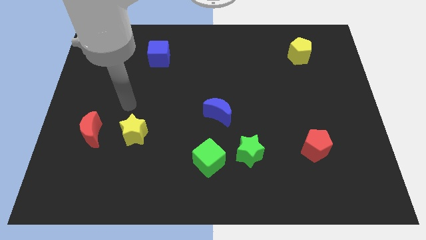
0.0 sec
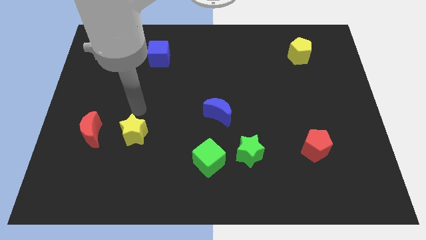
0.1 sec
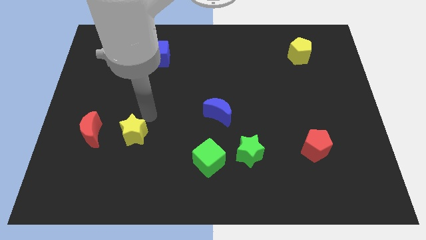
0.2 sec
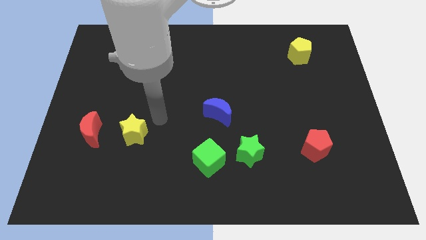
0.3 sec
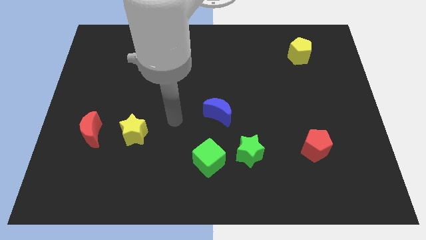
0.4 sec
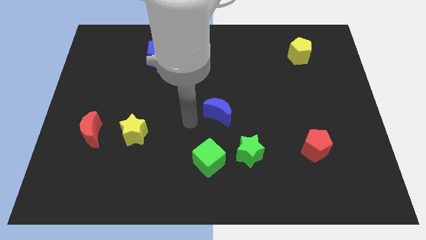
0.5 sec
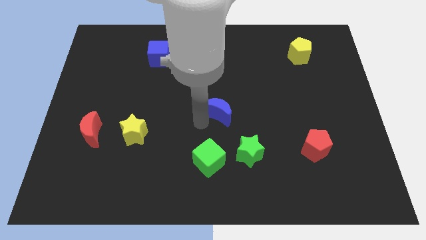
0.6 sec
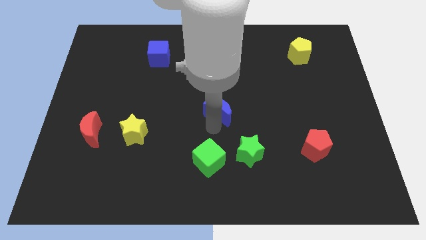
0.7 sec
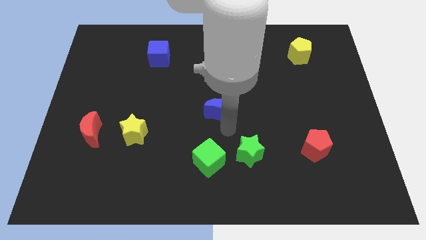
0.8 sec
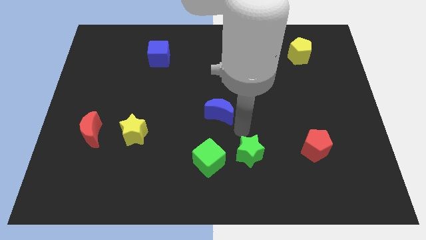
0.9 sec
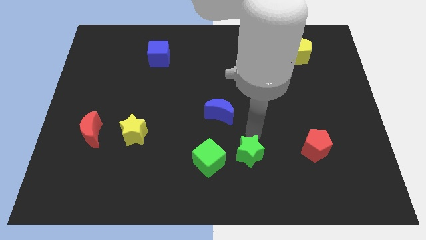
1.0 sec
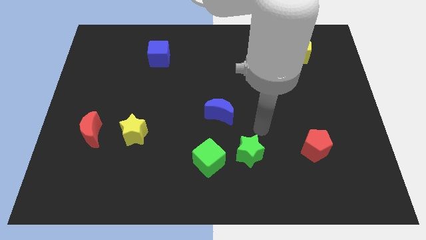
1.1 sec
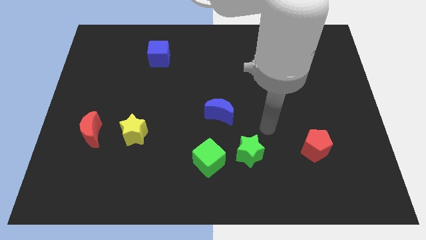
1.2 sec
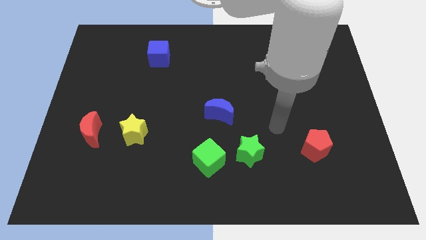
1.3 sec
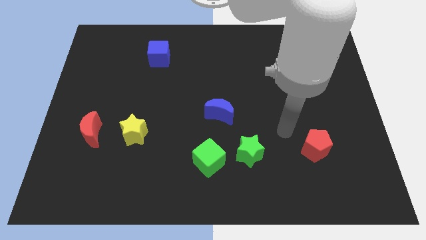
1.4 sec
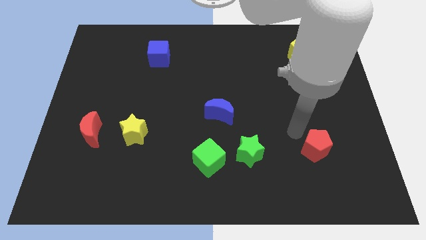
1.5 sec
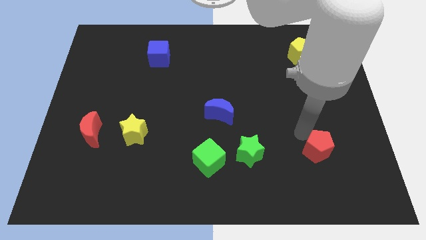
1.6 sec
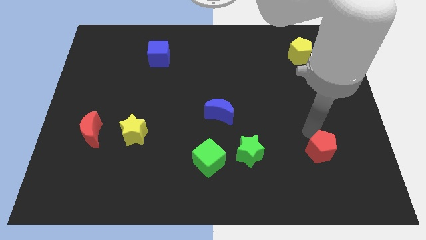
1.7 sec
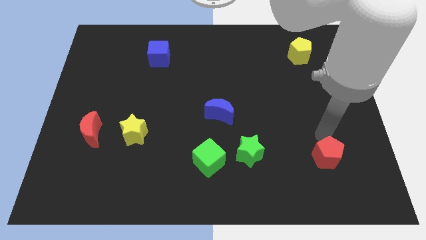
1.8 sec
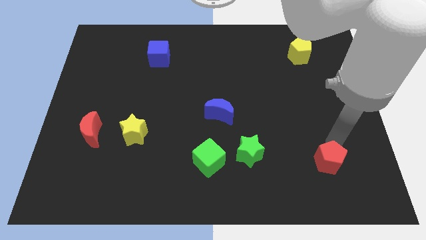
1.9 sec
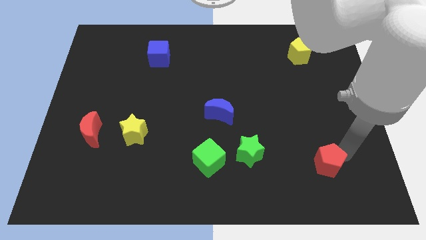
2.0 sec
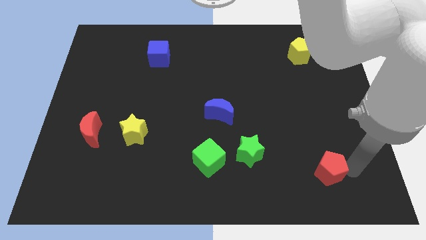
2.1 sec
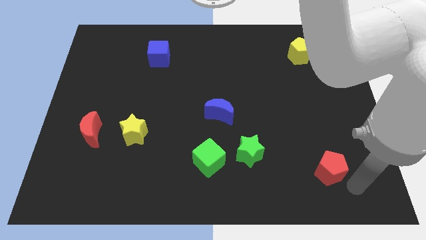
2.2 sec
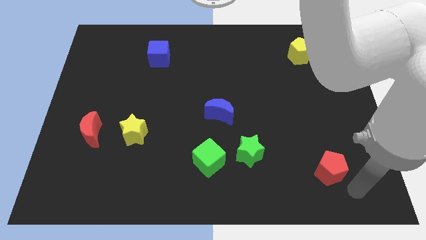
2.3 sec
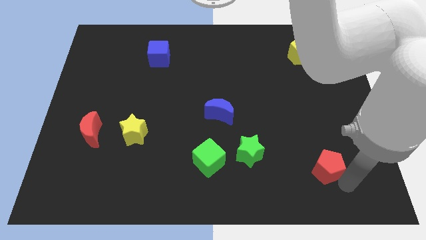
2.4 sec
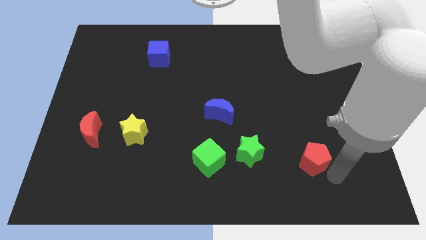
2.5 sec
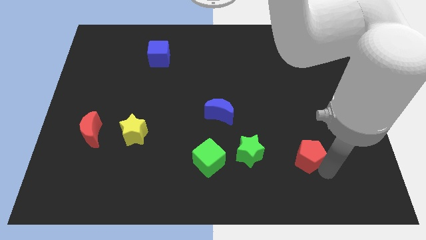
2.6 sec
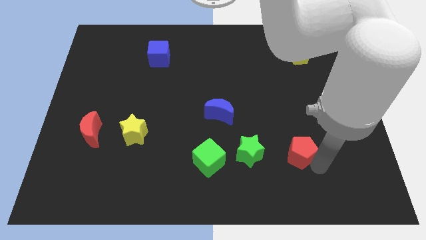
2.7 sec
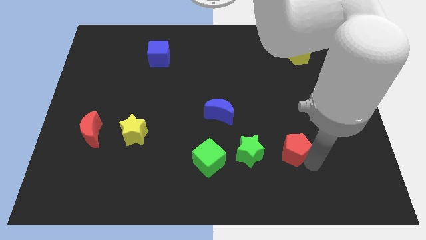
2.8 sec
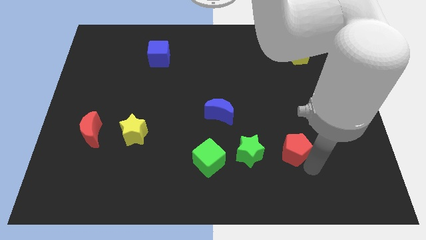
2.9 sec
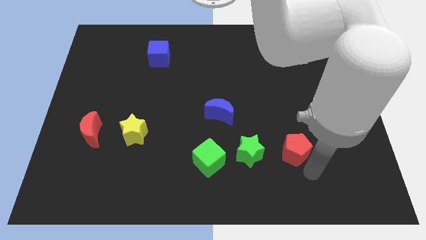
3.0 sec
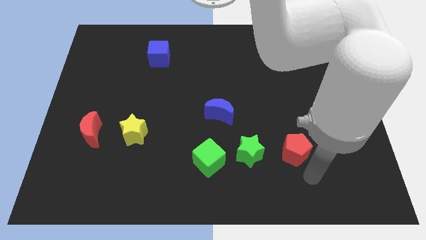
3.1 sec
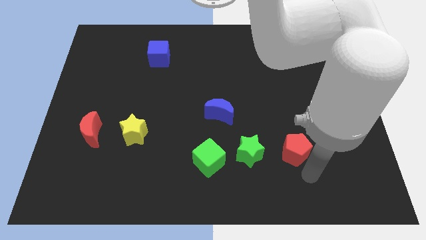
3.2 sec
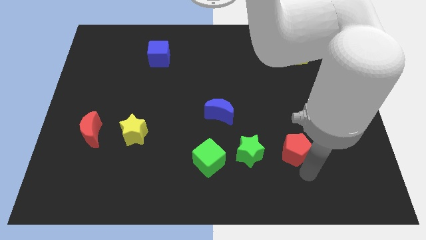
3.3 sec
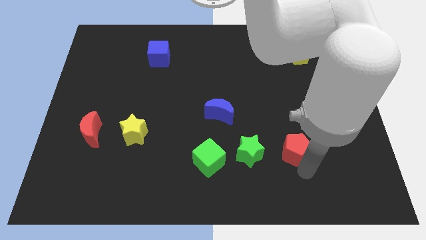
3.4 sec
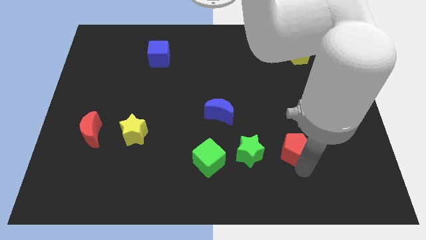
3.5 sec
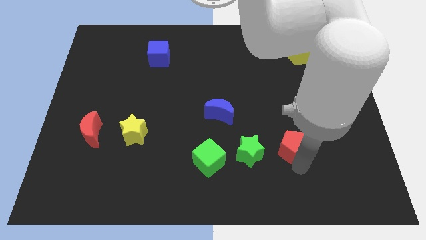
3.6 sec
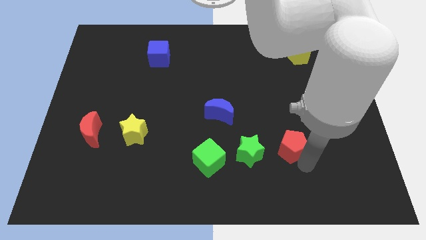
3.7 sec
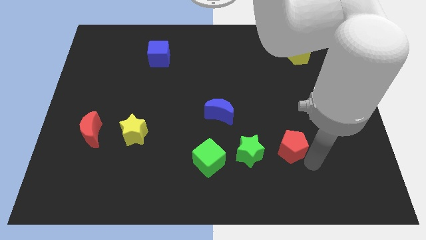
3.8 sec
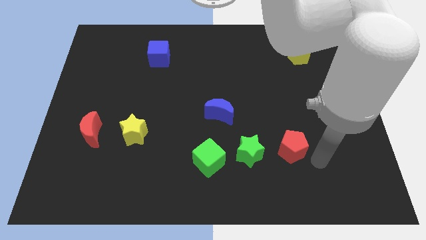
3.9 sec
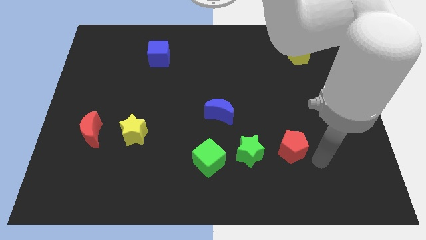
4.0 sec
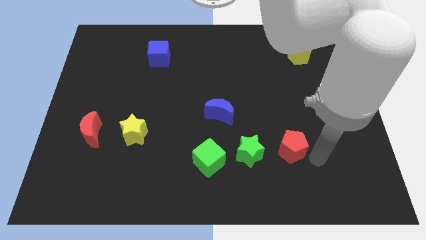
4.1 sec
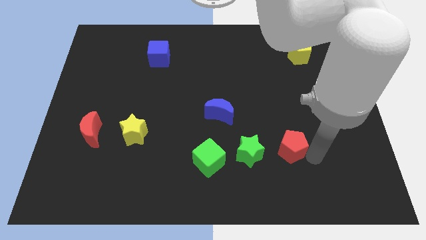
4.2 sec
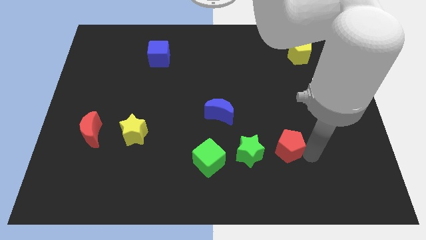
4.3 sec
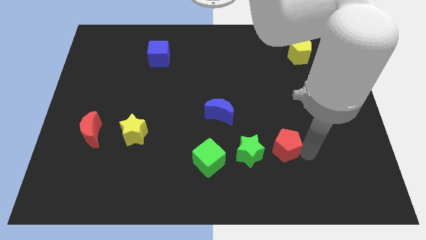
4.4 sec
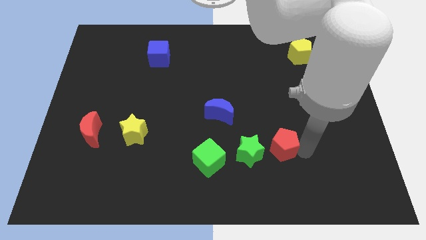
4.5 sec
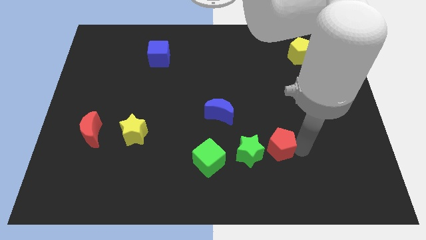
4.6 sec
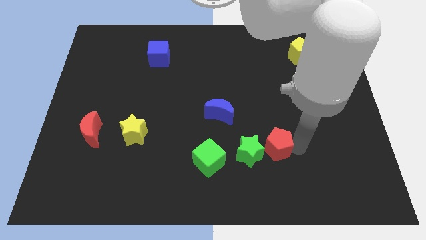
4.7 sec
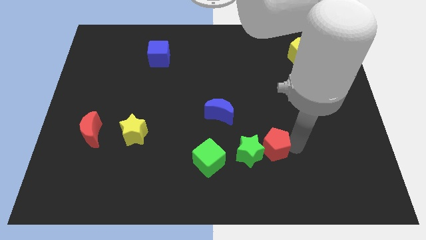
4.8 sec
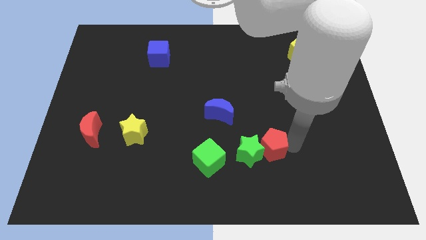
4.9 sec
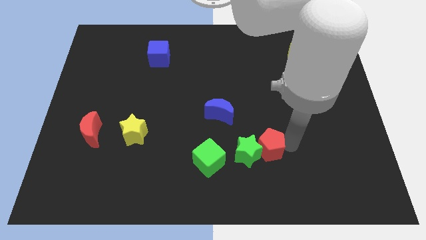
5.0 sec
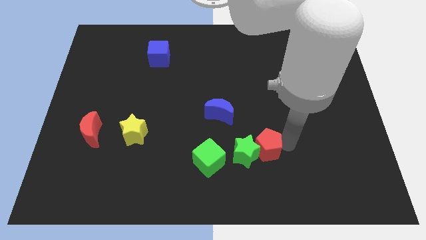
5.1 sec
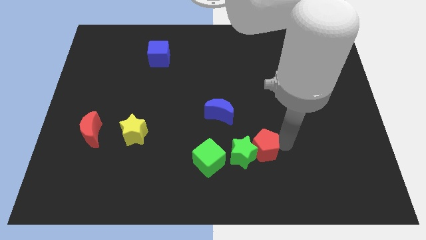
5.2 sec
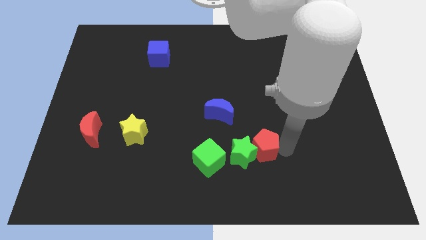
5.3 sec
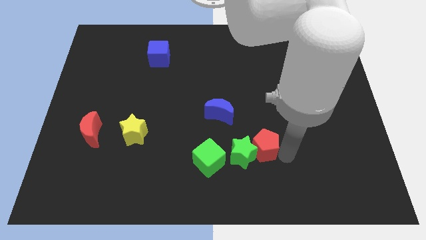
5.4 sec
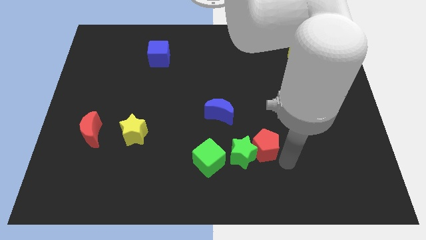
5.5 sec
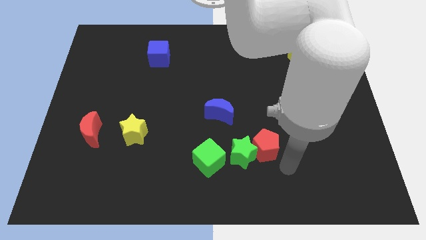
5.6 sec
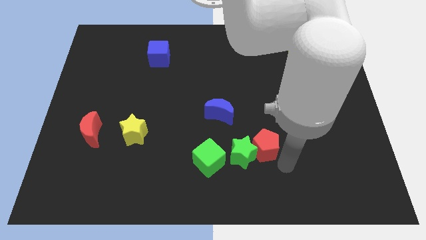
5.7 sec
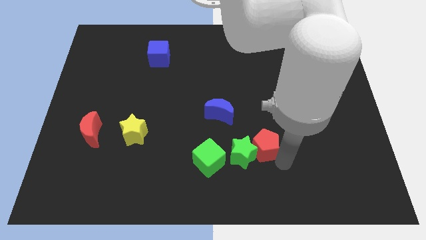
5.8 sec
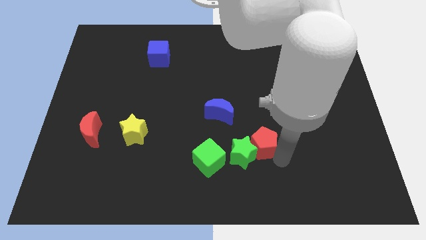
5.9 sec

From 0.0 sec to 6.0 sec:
push the red pentagon diagonally down and to the right of the blue moon

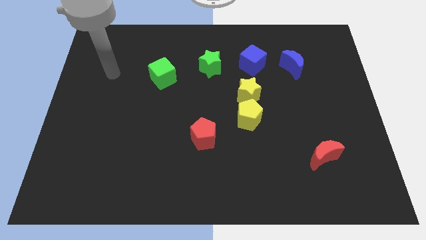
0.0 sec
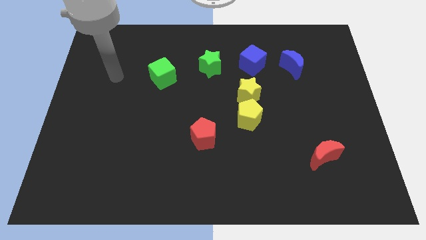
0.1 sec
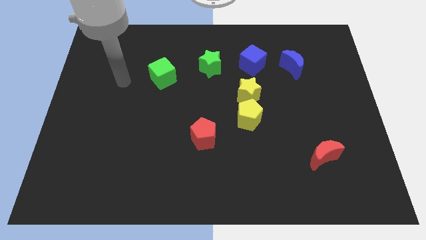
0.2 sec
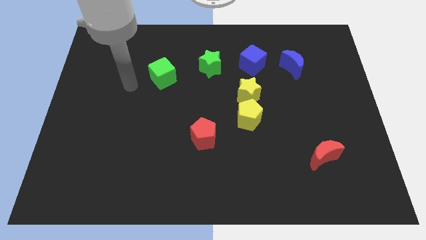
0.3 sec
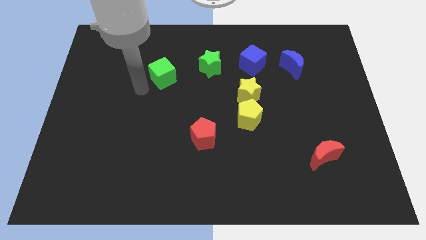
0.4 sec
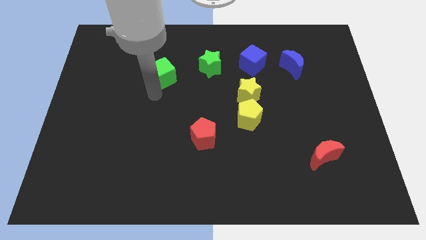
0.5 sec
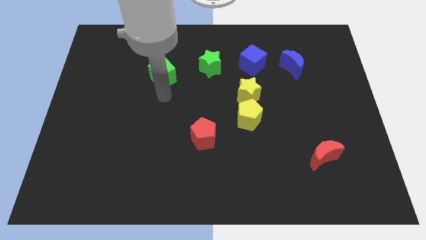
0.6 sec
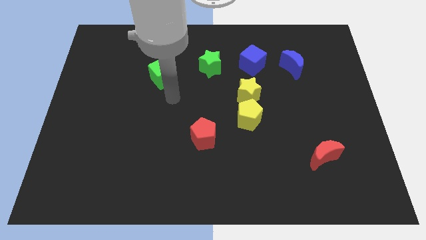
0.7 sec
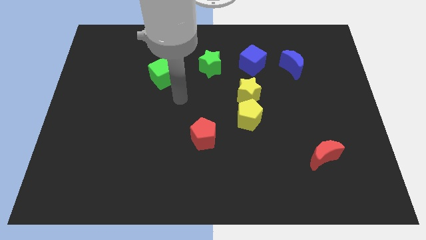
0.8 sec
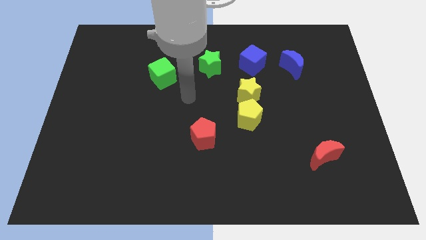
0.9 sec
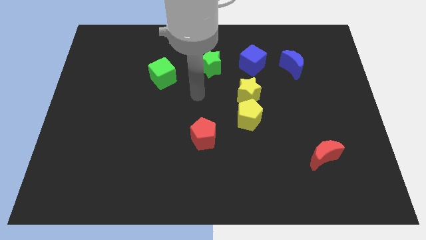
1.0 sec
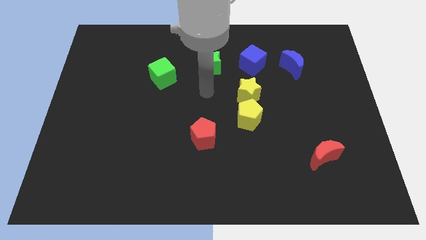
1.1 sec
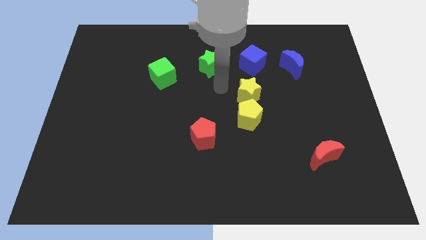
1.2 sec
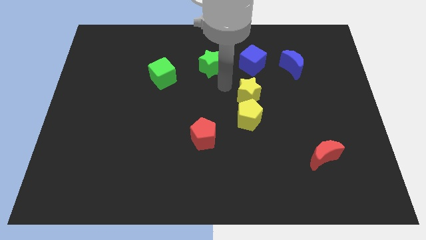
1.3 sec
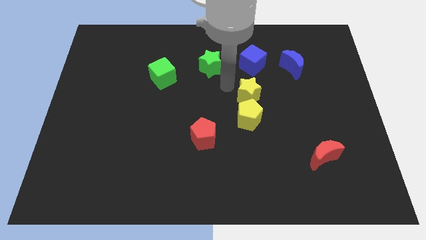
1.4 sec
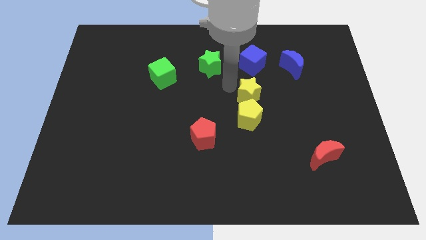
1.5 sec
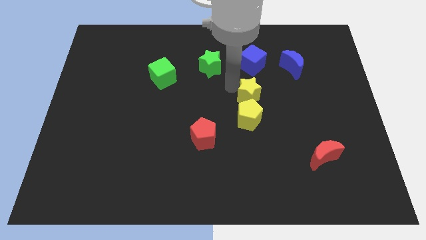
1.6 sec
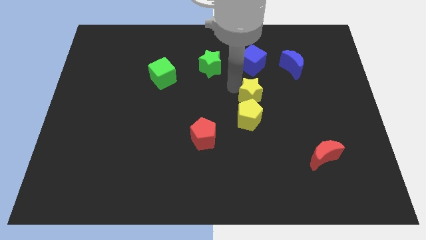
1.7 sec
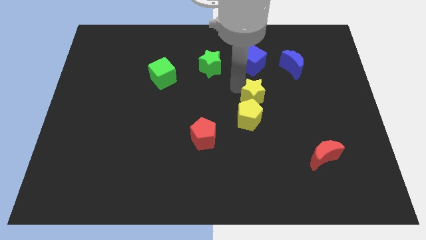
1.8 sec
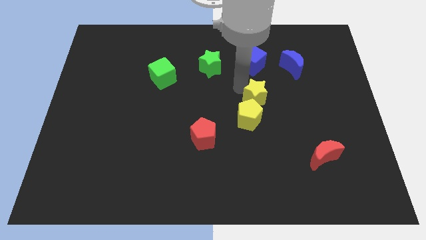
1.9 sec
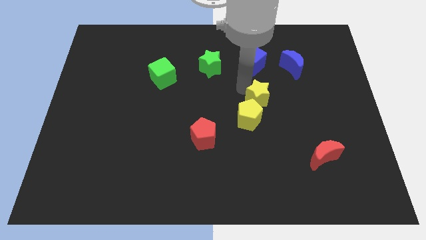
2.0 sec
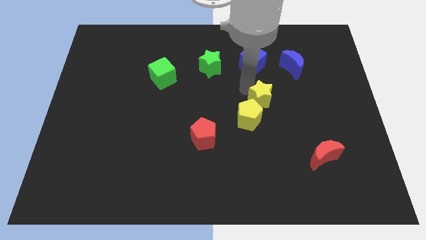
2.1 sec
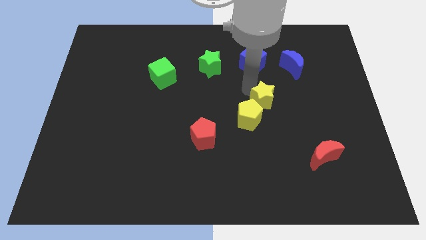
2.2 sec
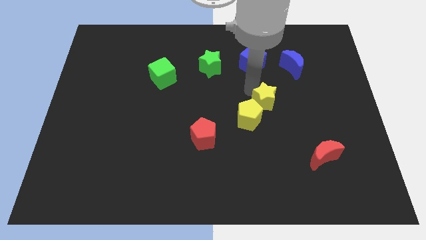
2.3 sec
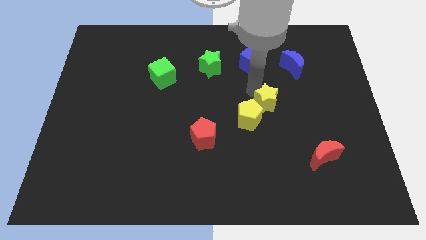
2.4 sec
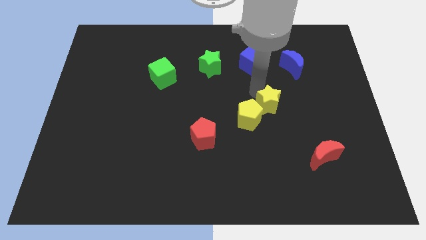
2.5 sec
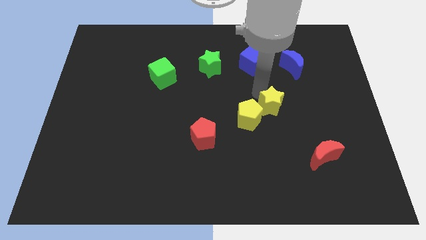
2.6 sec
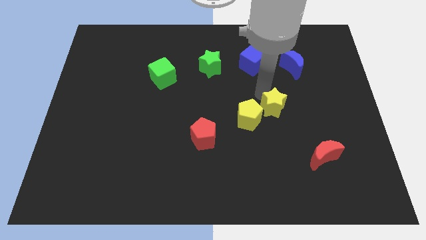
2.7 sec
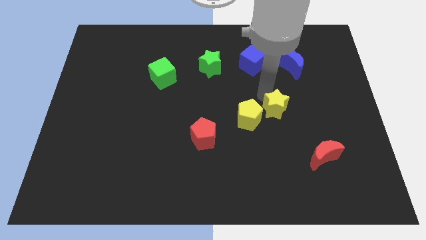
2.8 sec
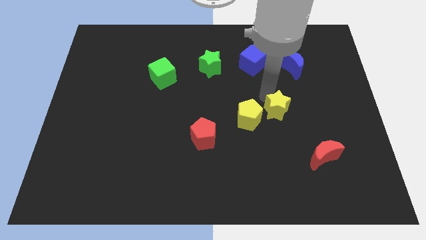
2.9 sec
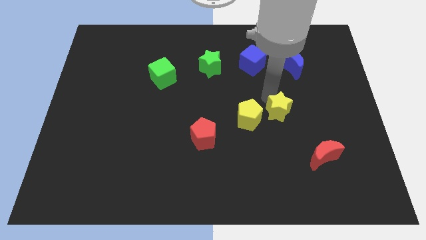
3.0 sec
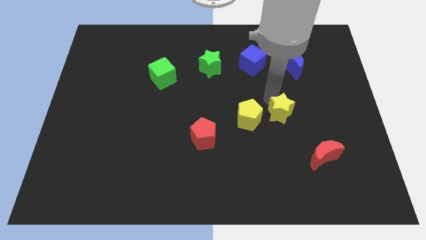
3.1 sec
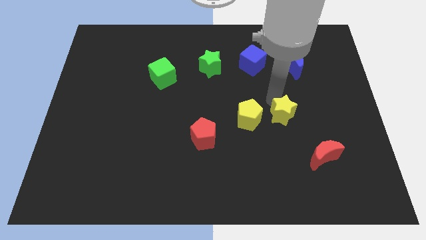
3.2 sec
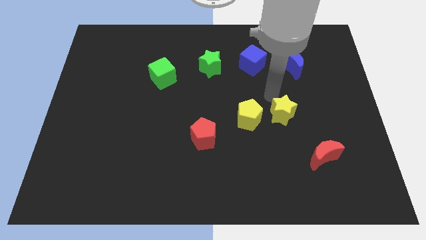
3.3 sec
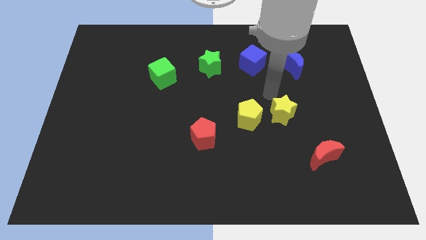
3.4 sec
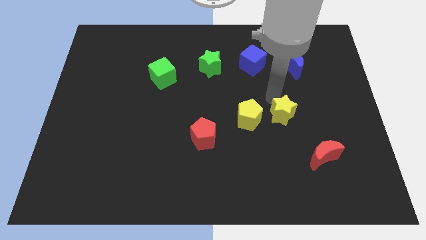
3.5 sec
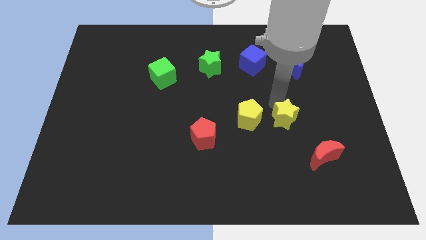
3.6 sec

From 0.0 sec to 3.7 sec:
push the yellow star to the top left side of the red moon
